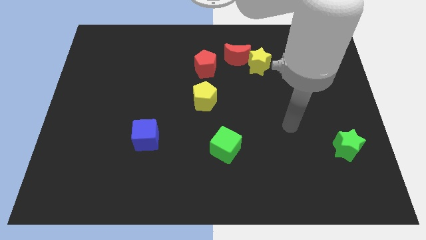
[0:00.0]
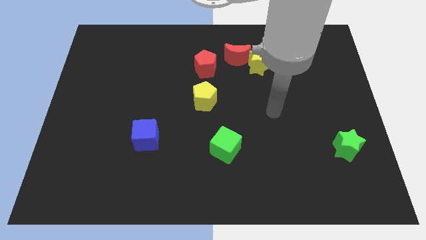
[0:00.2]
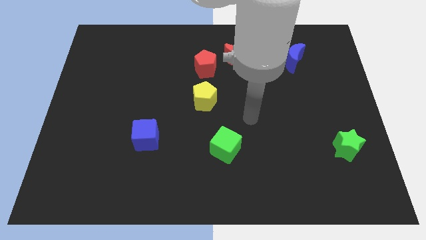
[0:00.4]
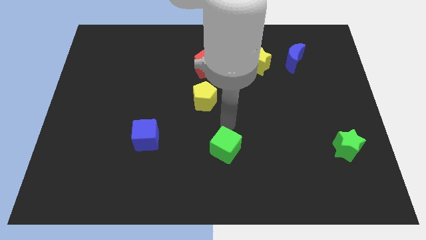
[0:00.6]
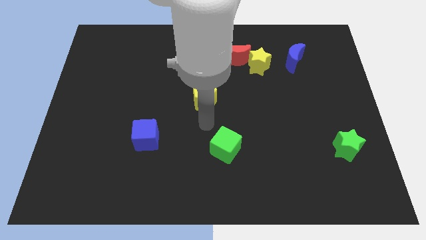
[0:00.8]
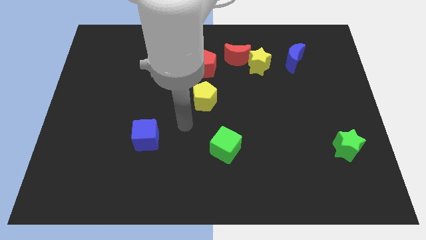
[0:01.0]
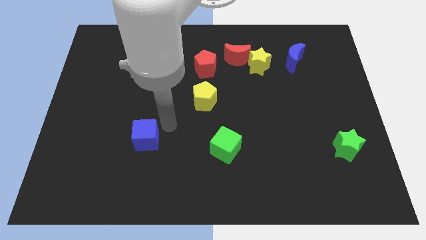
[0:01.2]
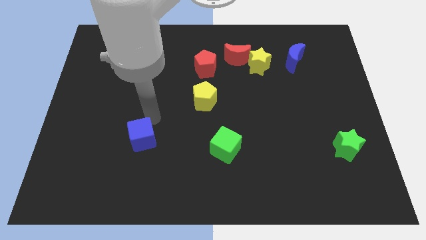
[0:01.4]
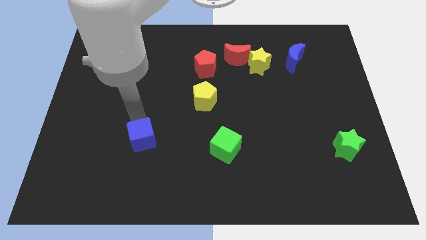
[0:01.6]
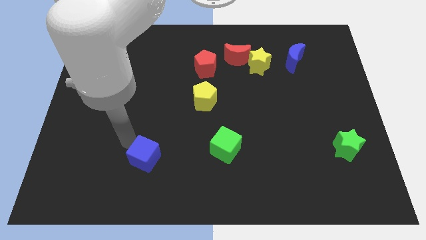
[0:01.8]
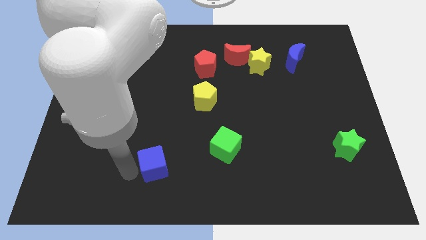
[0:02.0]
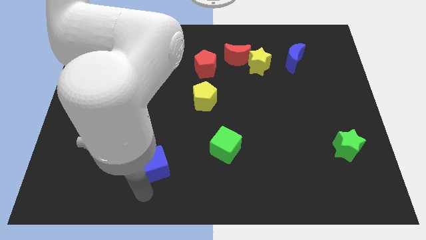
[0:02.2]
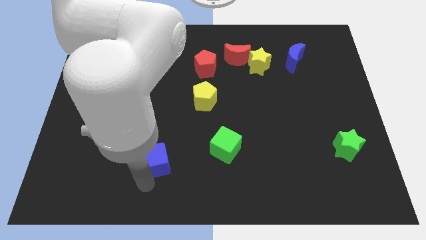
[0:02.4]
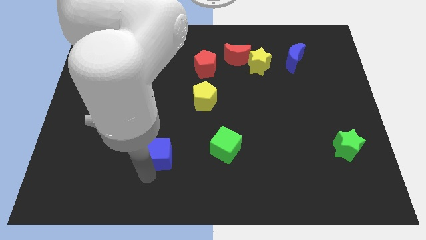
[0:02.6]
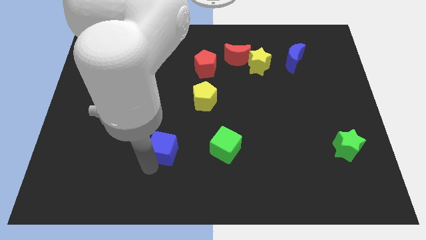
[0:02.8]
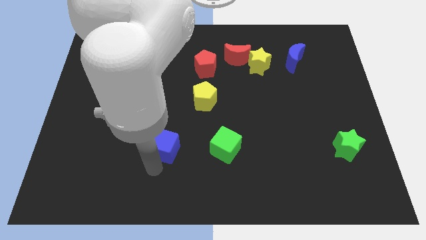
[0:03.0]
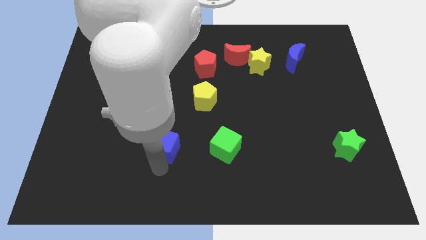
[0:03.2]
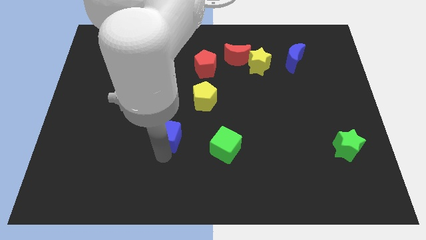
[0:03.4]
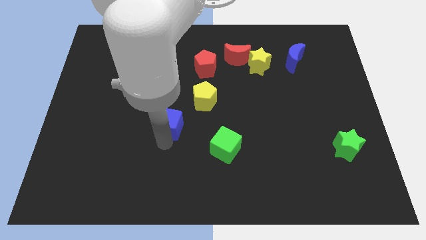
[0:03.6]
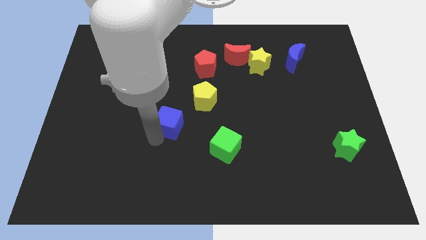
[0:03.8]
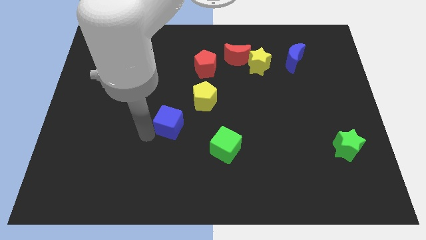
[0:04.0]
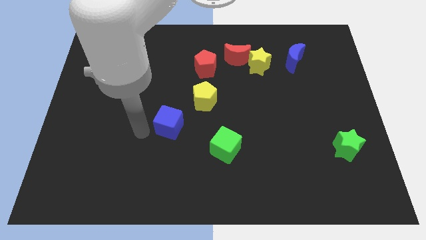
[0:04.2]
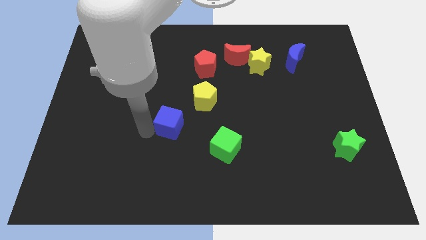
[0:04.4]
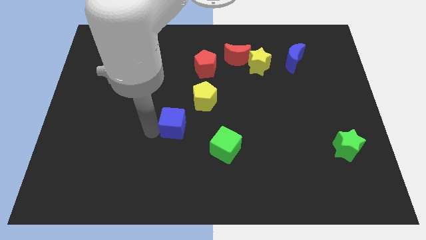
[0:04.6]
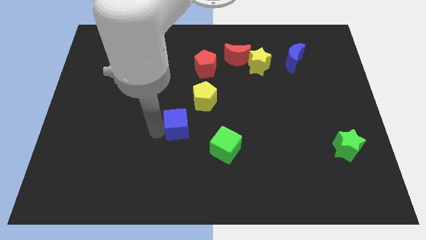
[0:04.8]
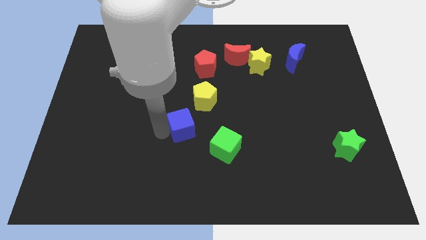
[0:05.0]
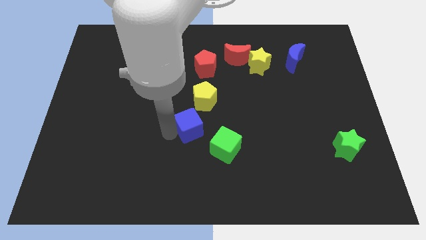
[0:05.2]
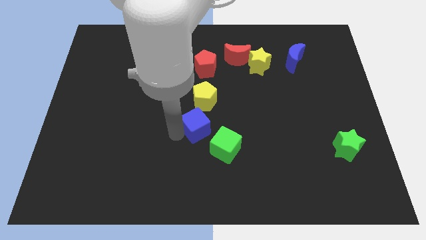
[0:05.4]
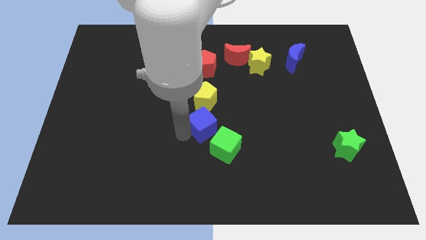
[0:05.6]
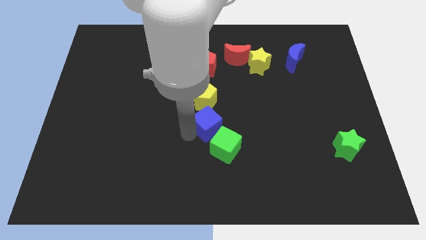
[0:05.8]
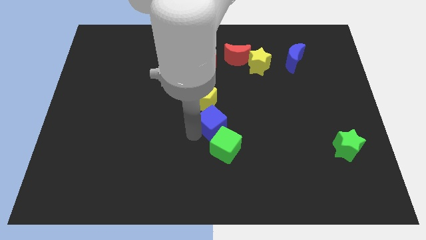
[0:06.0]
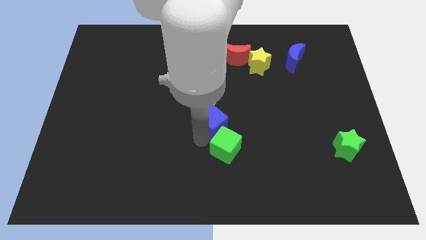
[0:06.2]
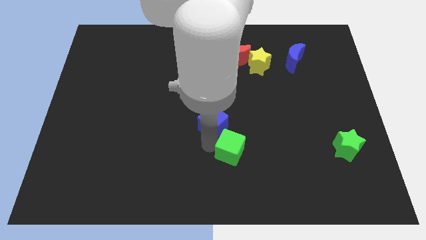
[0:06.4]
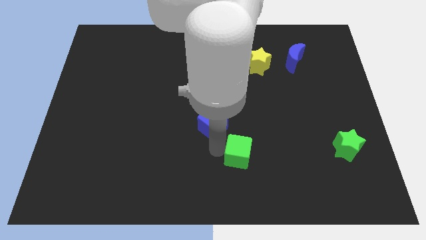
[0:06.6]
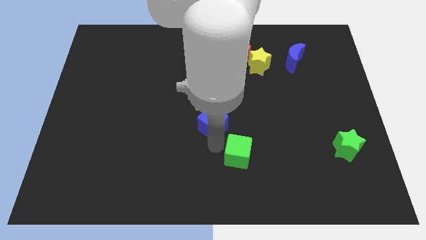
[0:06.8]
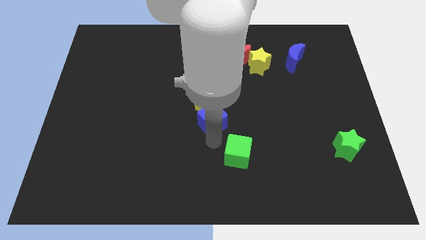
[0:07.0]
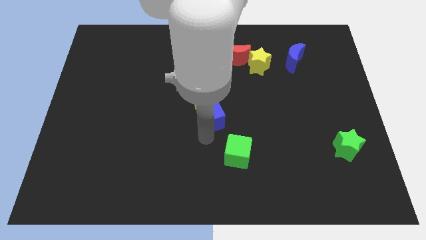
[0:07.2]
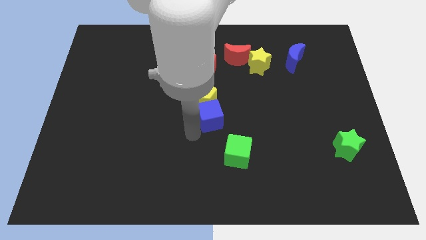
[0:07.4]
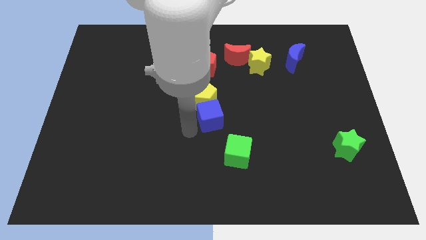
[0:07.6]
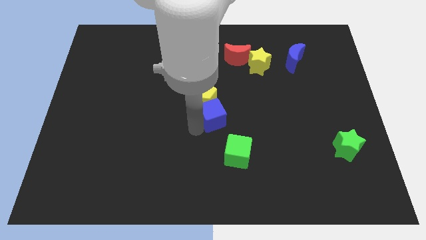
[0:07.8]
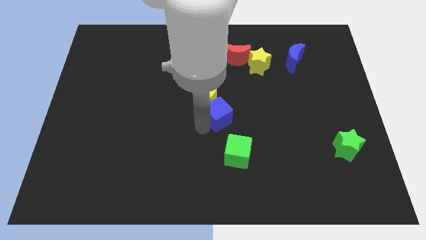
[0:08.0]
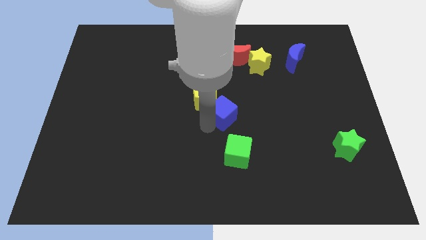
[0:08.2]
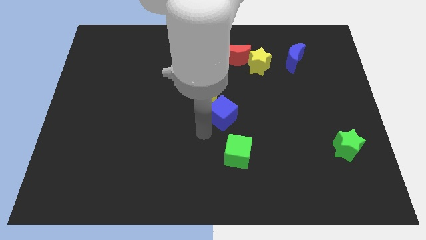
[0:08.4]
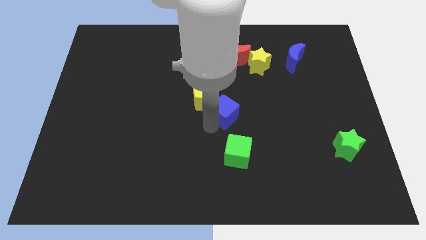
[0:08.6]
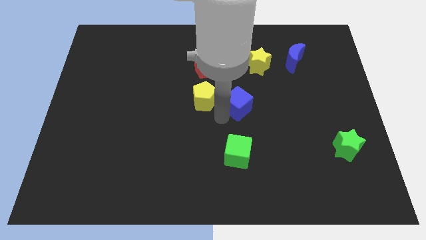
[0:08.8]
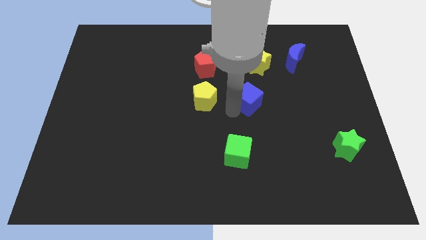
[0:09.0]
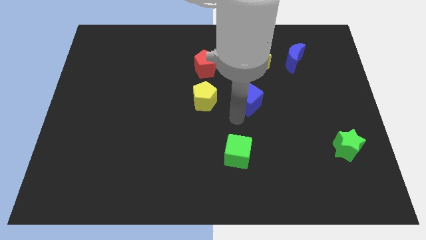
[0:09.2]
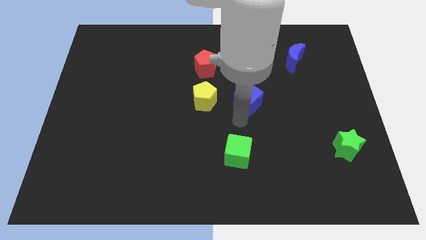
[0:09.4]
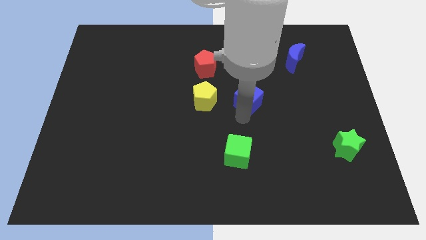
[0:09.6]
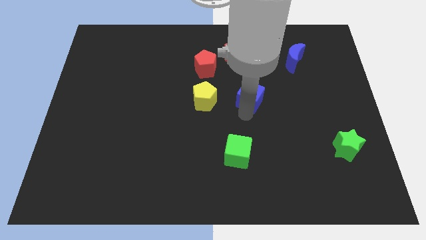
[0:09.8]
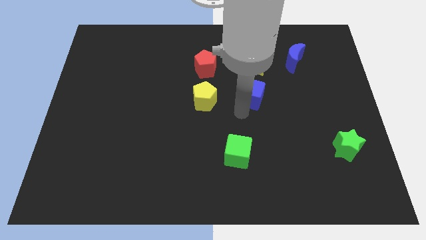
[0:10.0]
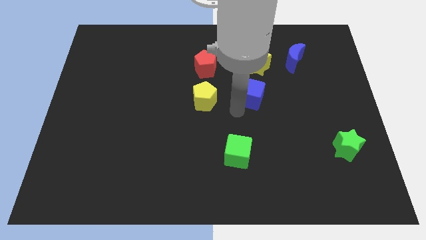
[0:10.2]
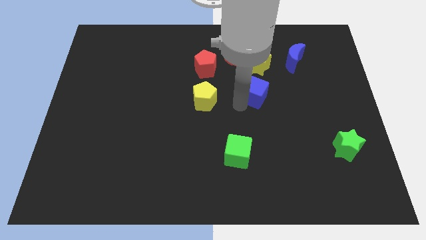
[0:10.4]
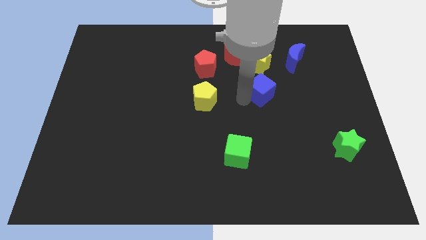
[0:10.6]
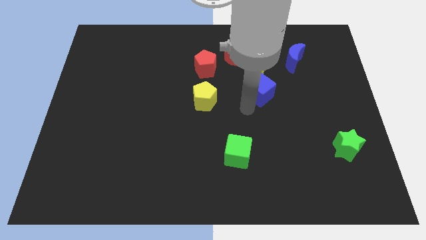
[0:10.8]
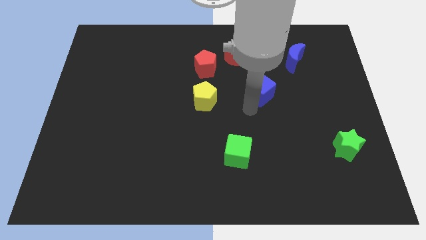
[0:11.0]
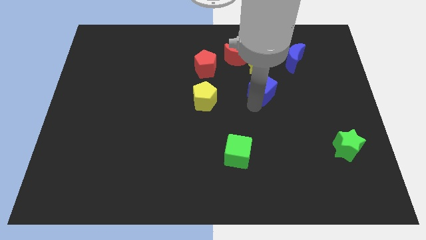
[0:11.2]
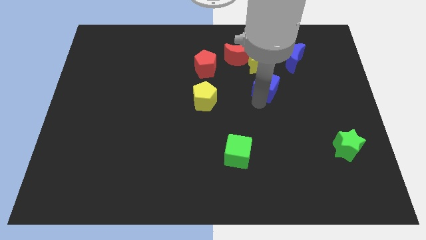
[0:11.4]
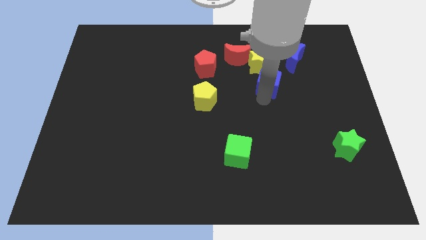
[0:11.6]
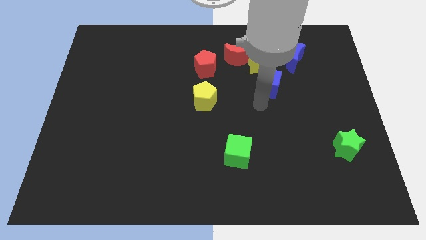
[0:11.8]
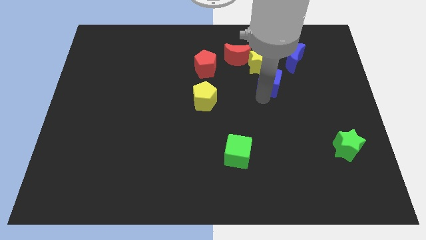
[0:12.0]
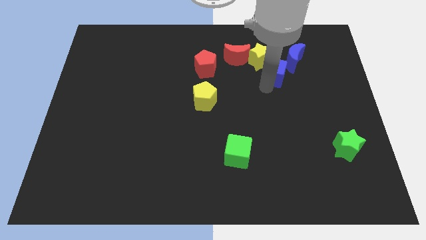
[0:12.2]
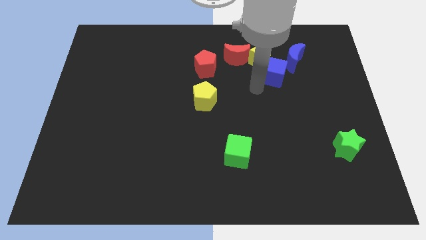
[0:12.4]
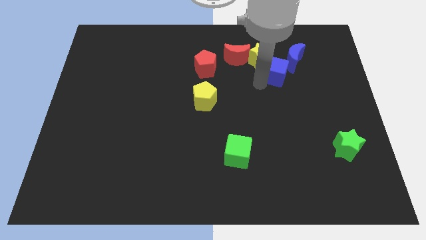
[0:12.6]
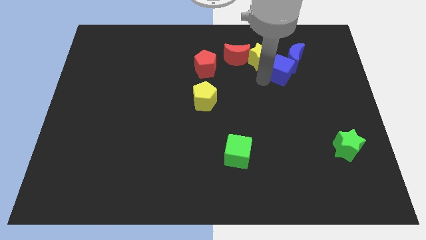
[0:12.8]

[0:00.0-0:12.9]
slide the blue cube next to the blue moon

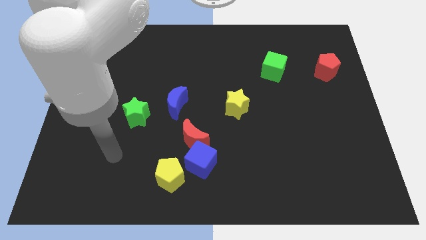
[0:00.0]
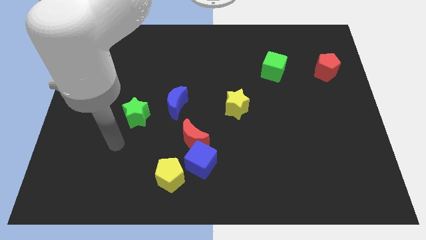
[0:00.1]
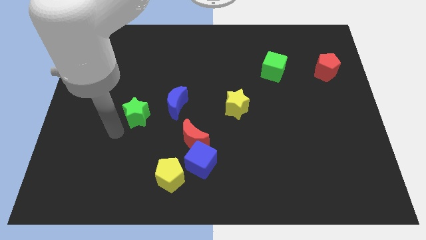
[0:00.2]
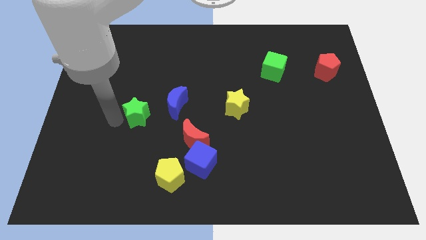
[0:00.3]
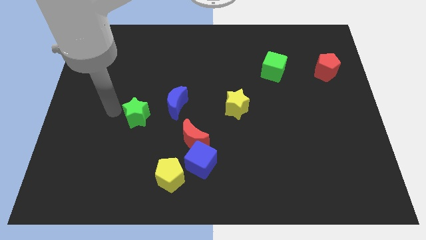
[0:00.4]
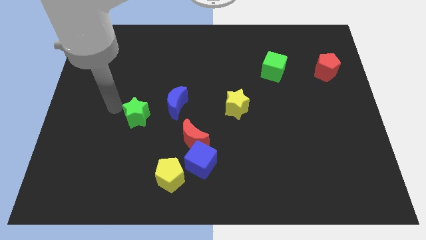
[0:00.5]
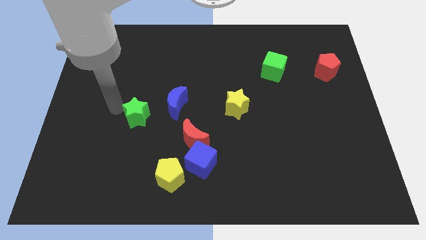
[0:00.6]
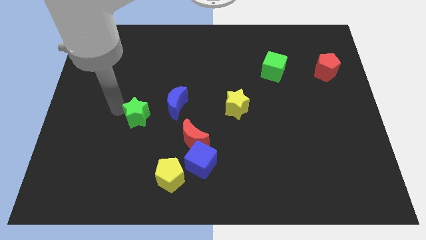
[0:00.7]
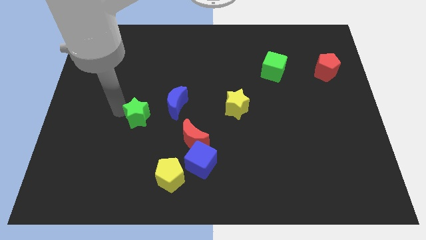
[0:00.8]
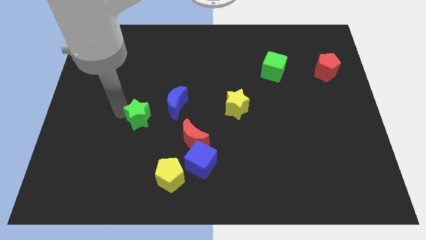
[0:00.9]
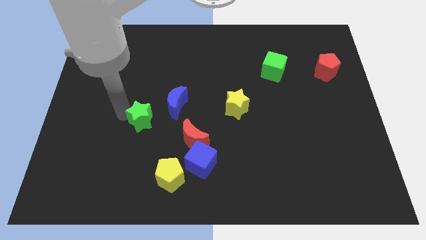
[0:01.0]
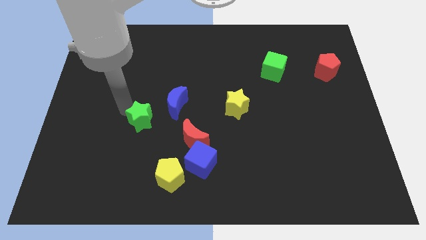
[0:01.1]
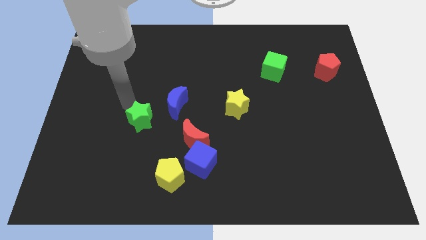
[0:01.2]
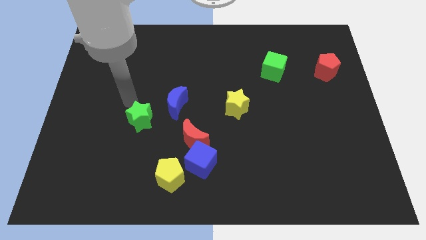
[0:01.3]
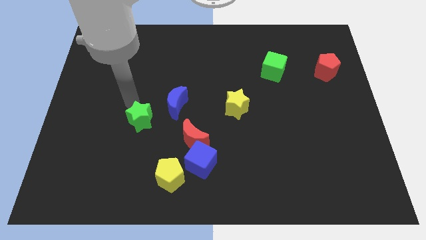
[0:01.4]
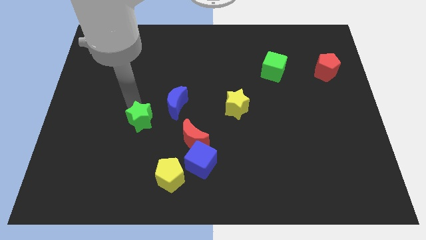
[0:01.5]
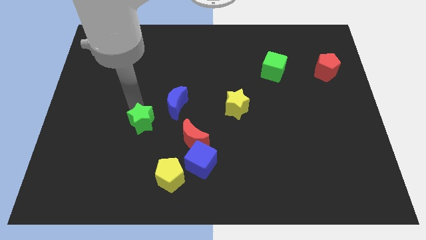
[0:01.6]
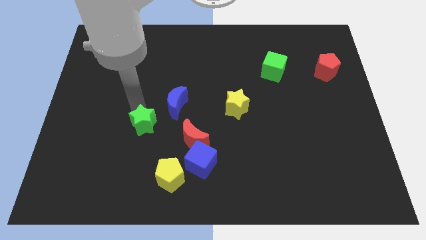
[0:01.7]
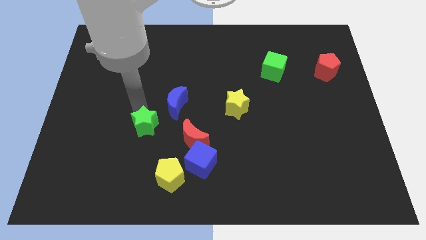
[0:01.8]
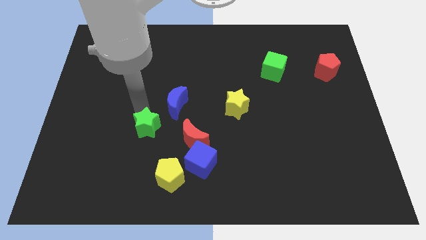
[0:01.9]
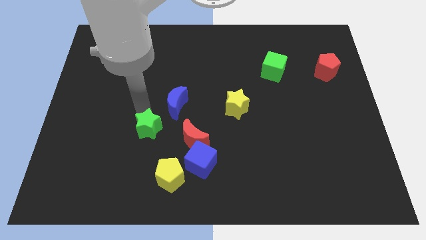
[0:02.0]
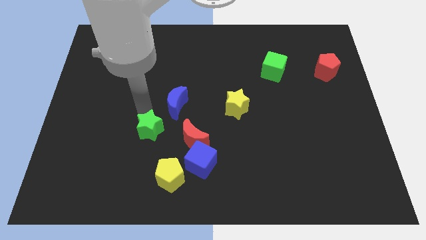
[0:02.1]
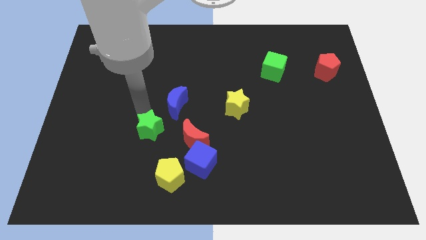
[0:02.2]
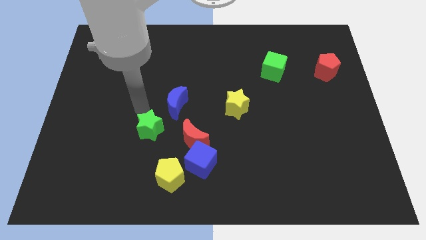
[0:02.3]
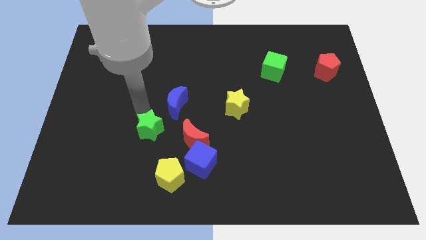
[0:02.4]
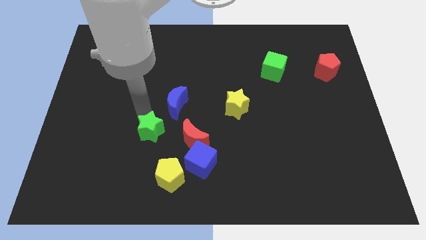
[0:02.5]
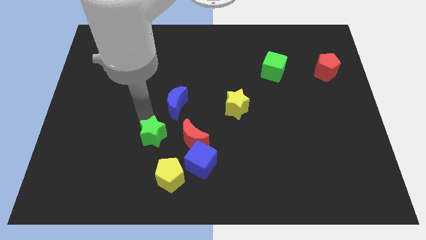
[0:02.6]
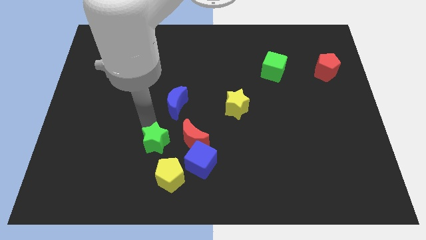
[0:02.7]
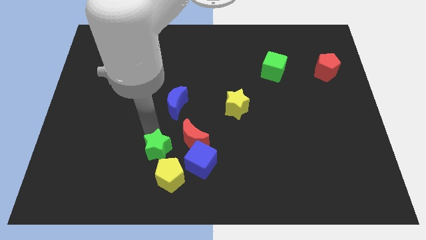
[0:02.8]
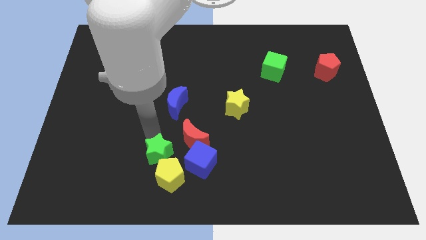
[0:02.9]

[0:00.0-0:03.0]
put the green star to the yellow pentagon
